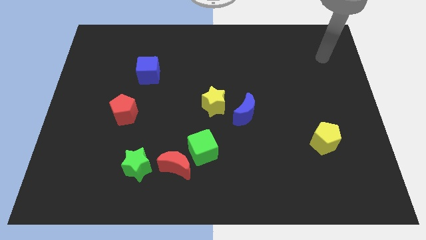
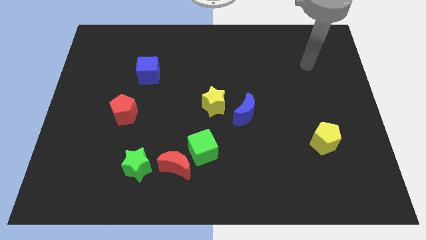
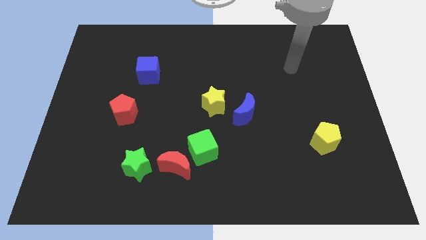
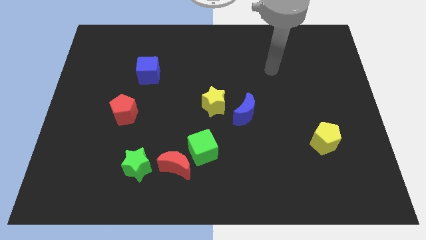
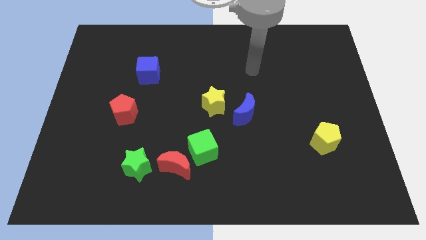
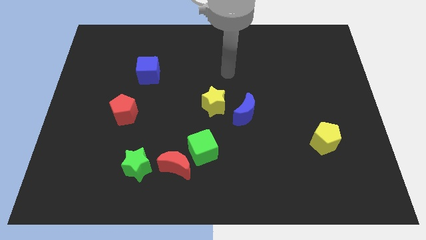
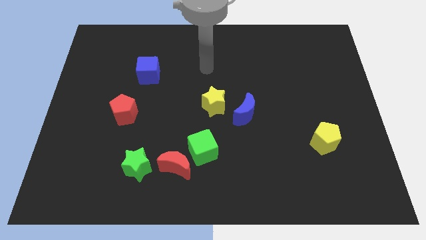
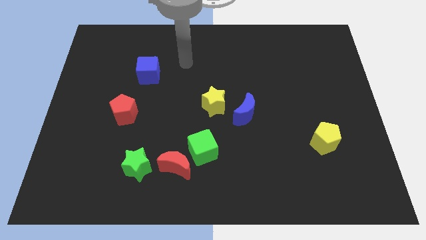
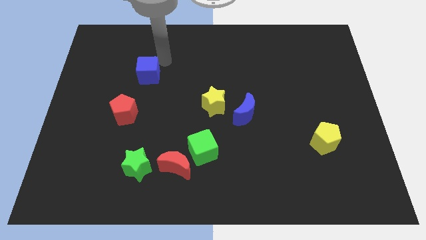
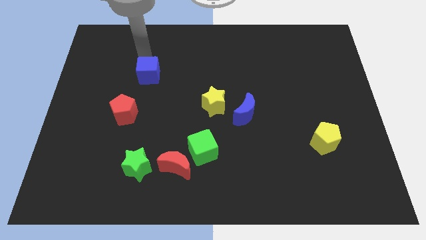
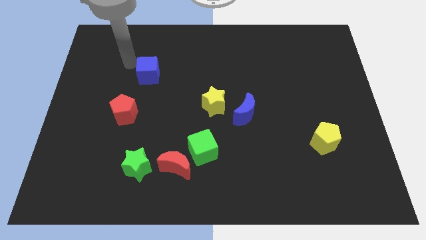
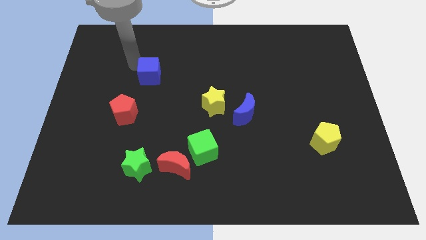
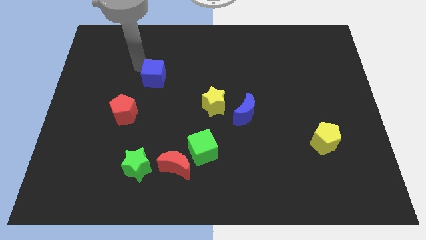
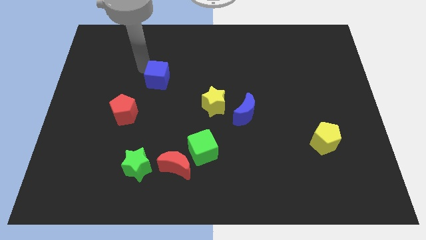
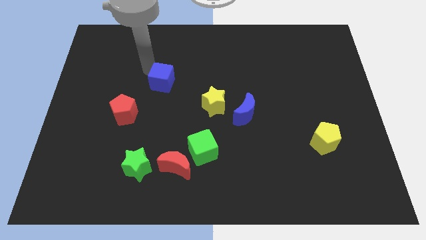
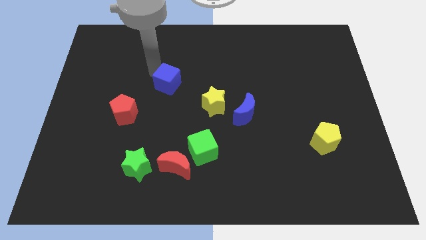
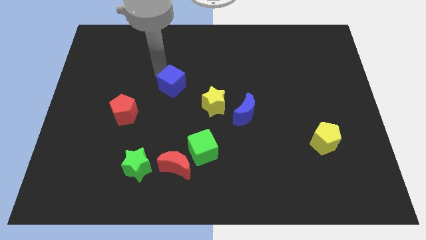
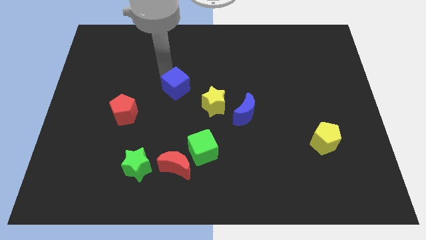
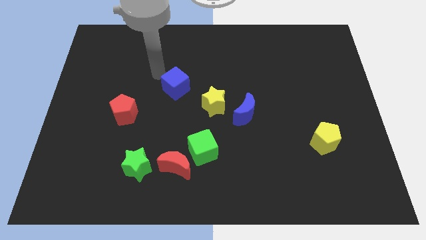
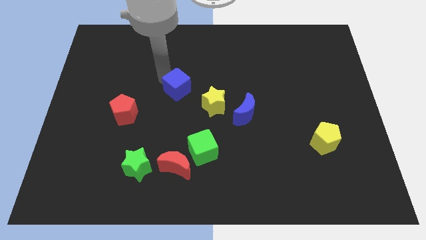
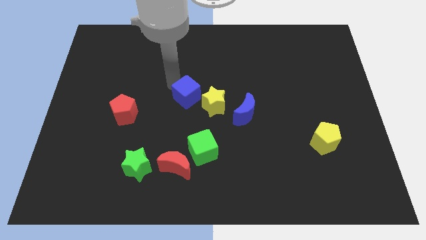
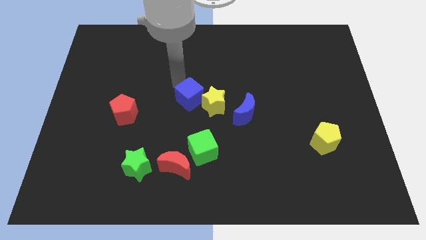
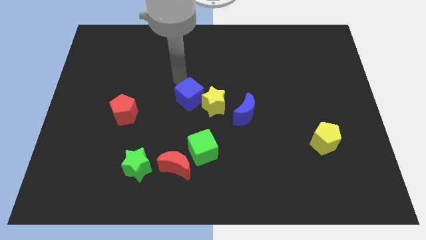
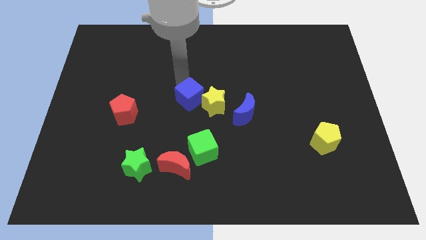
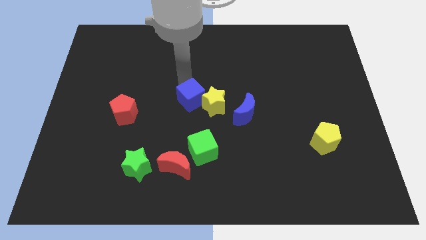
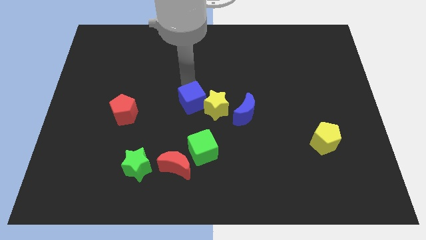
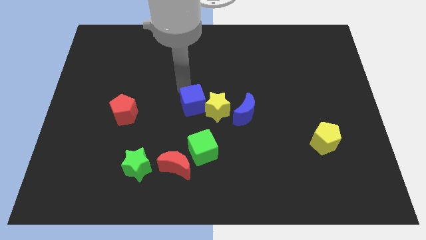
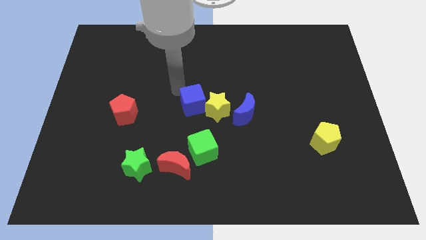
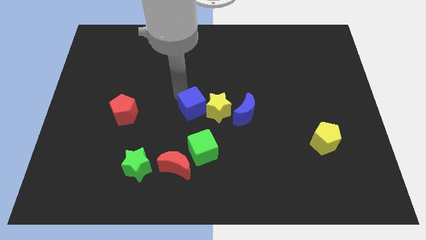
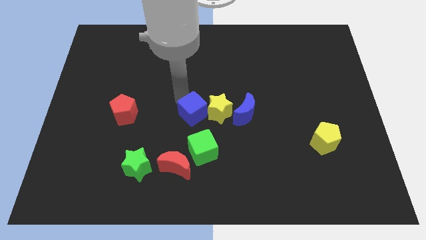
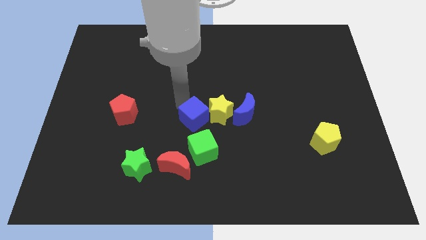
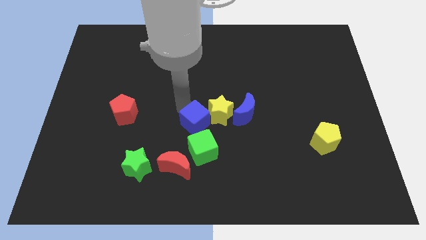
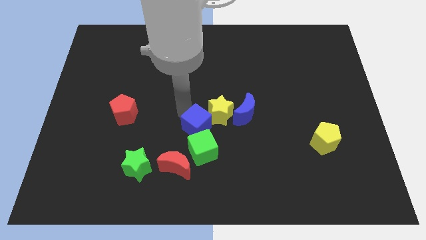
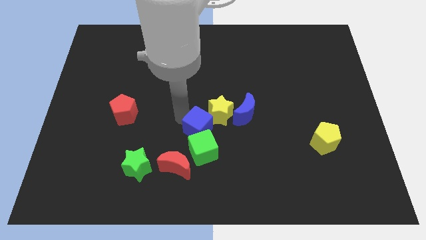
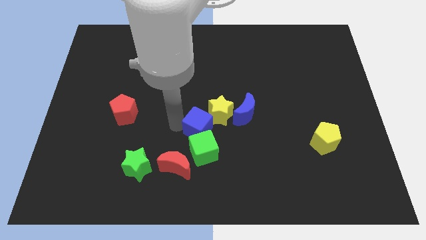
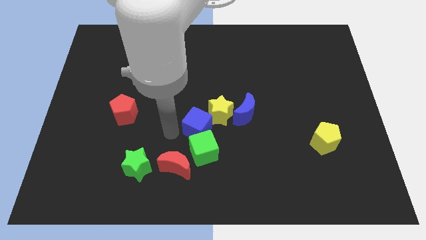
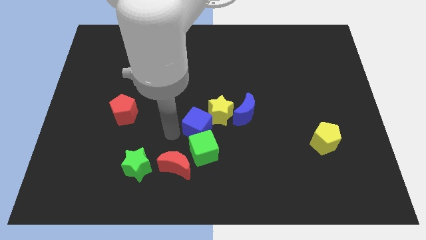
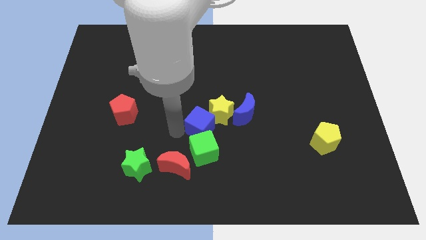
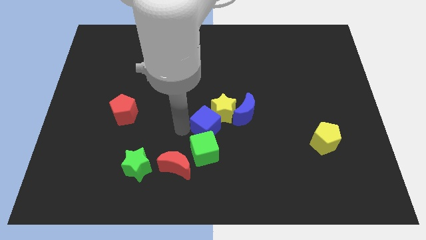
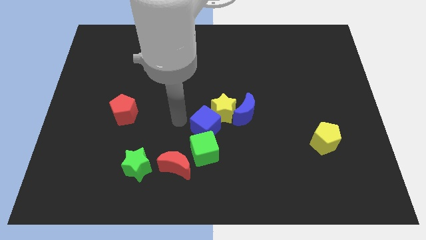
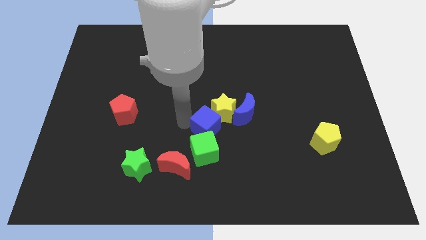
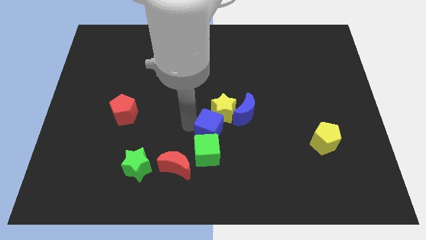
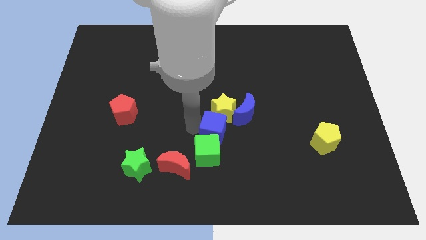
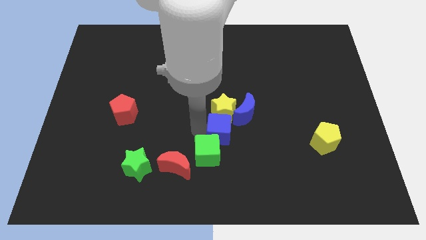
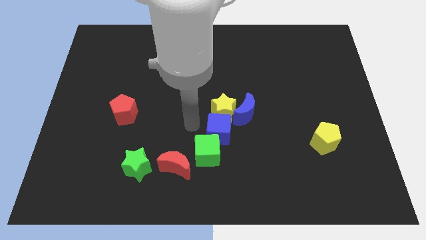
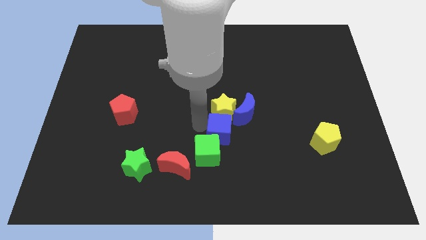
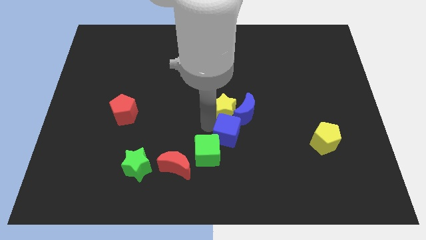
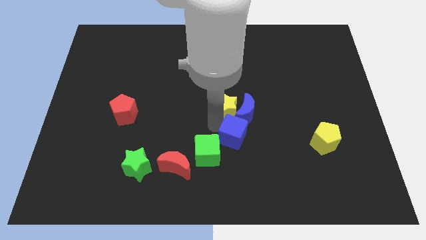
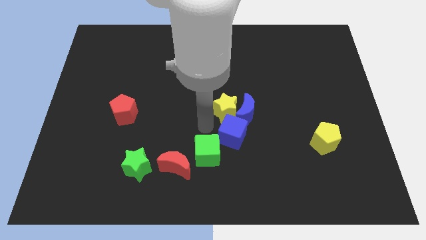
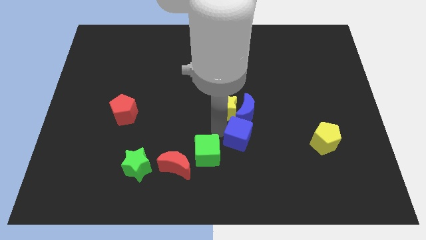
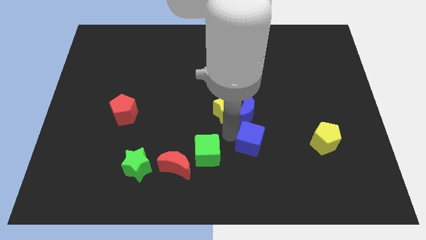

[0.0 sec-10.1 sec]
put the blue cube left of the yellow pentagon

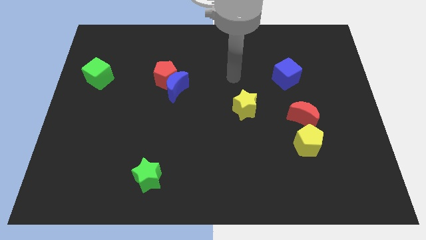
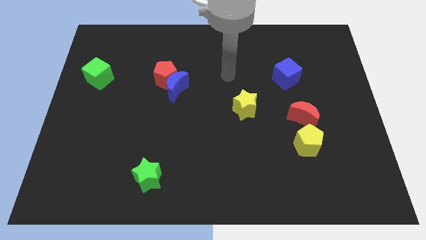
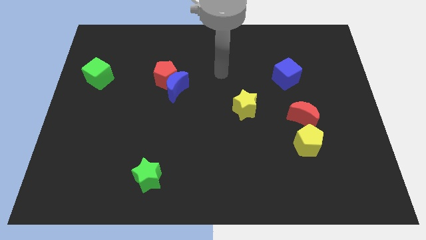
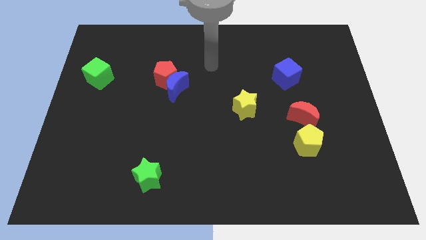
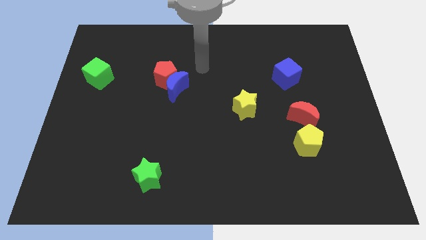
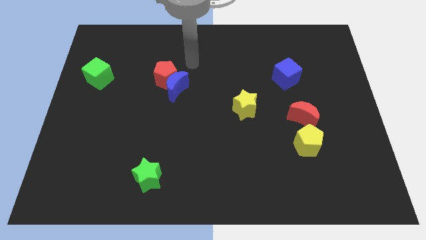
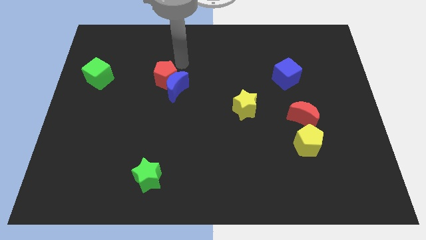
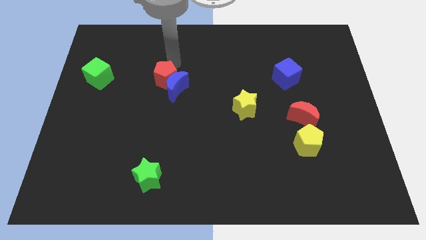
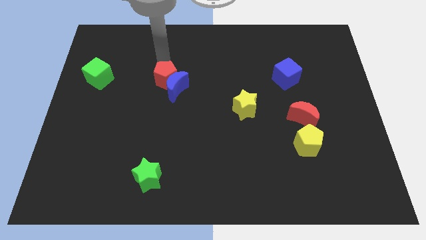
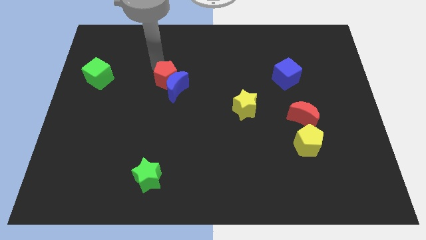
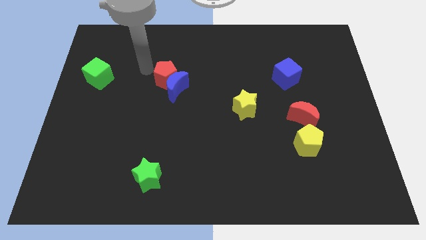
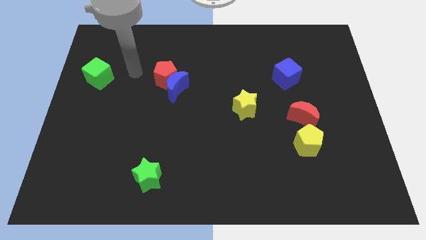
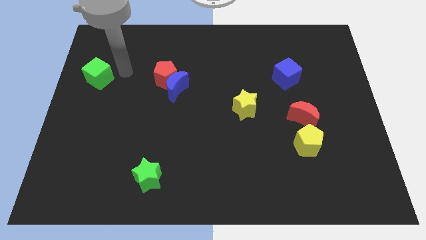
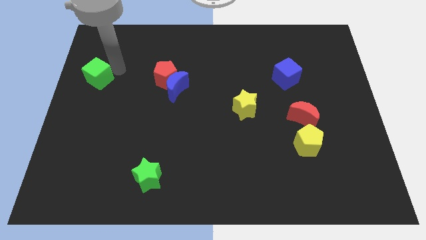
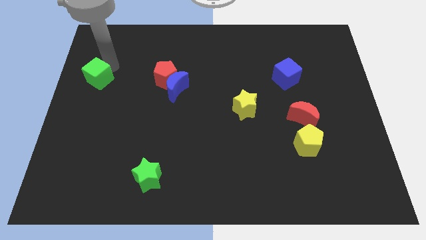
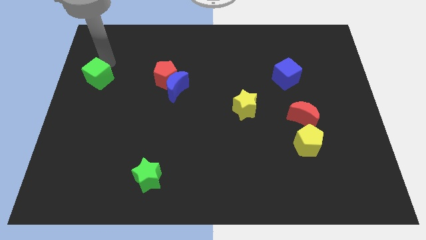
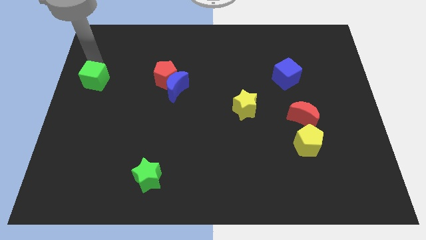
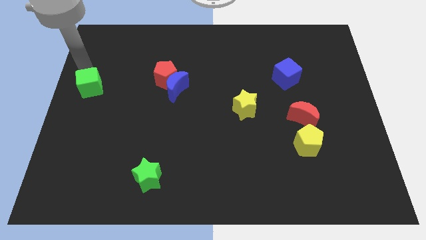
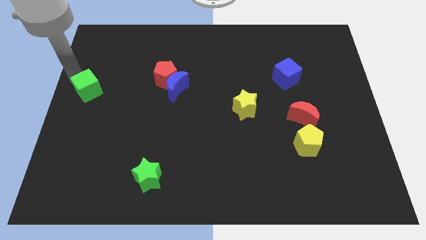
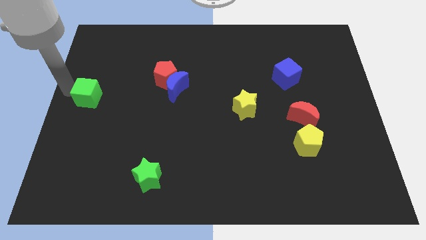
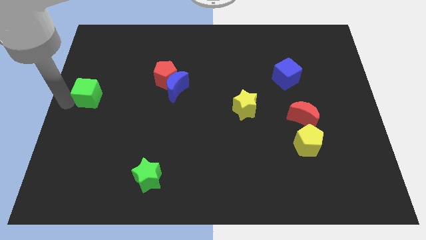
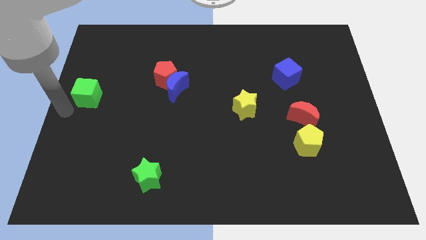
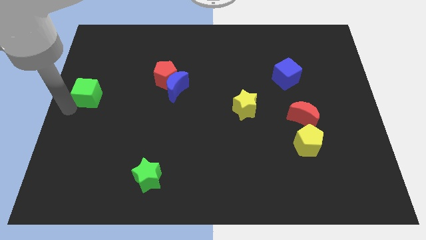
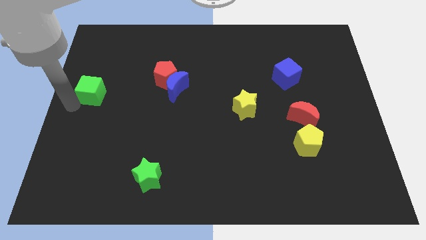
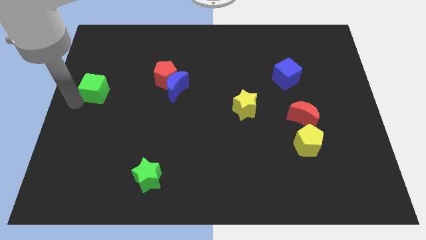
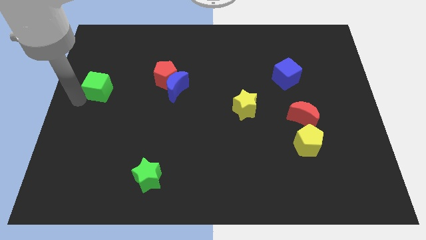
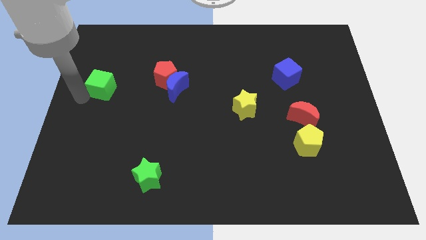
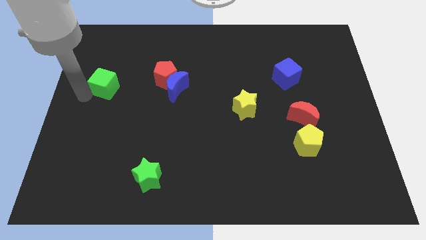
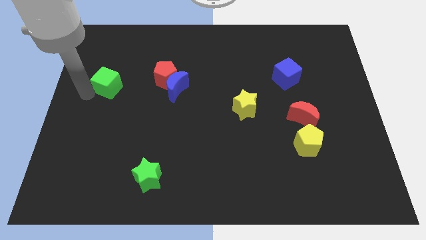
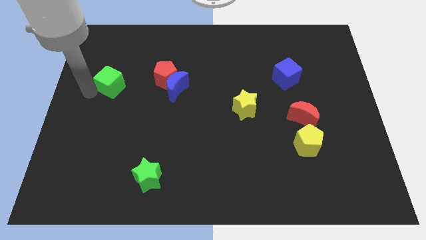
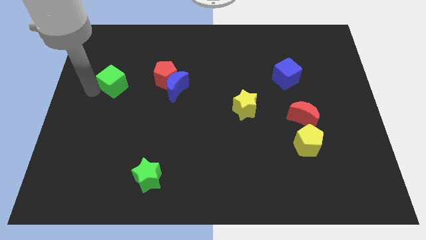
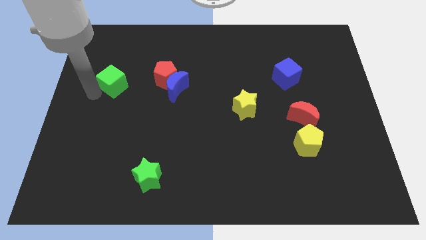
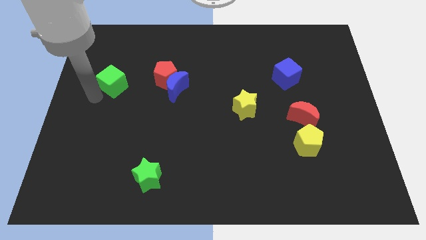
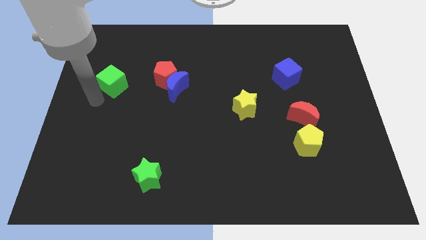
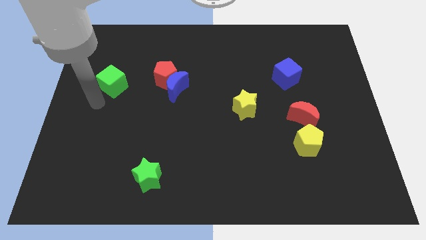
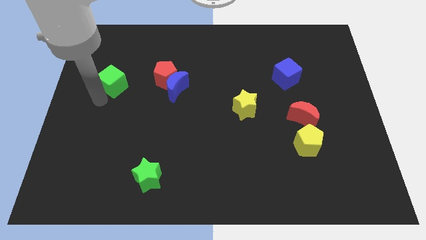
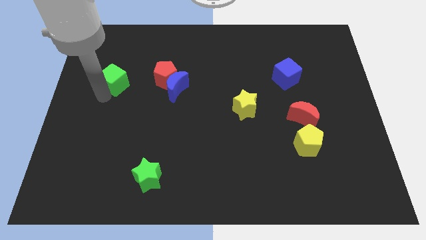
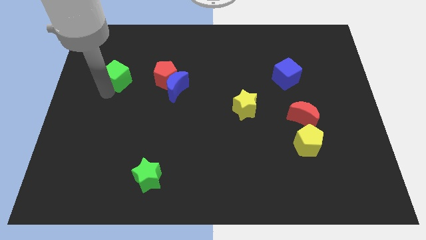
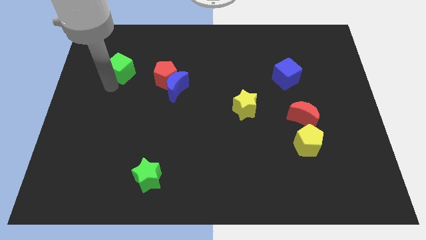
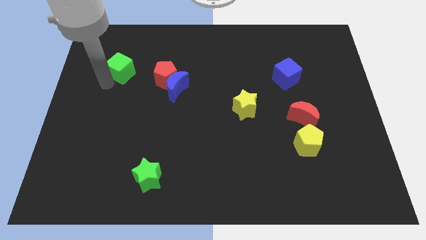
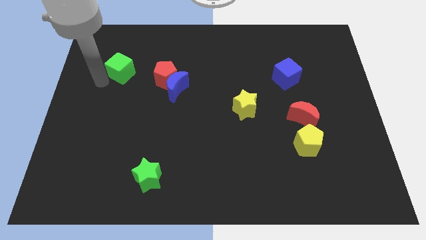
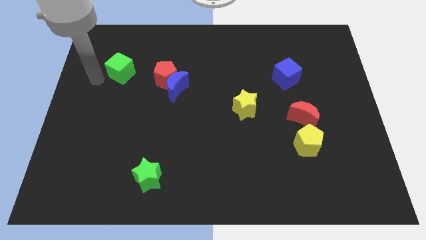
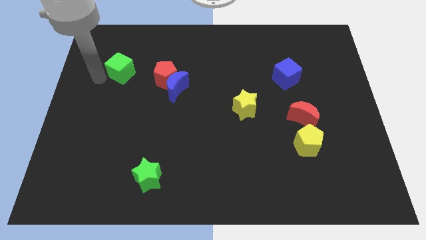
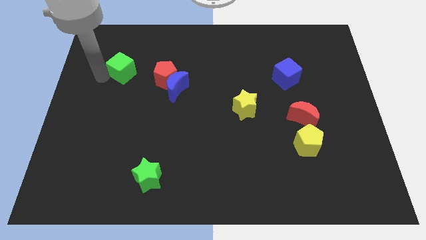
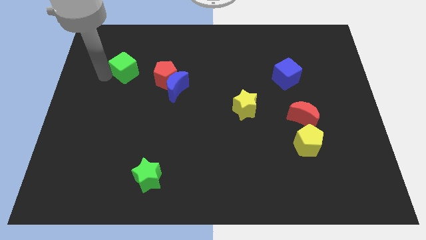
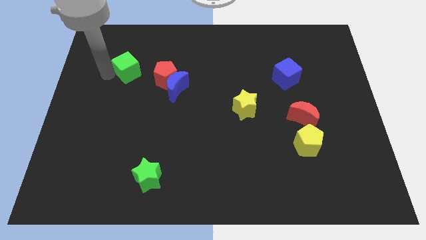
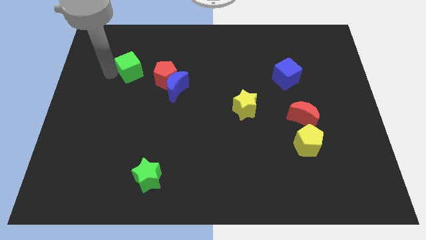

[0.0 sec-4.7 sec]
put the green cube diagonally up and to the left of the red pentagon
